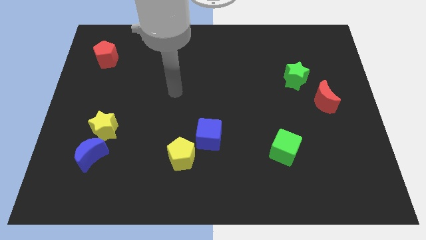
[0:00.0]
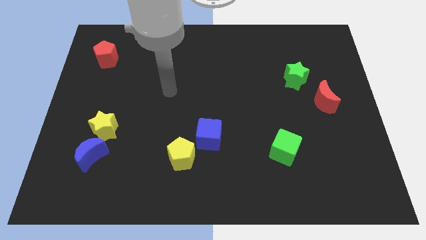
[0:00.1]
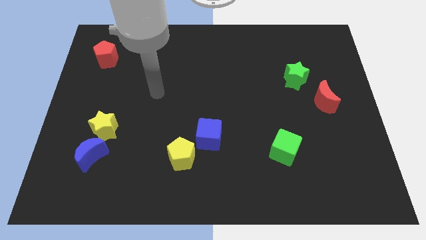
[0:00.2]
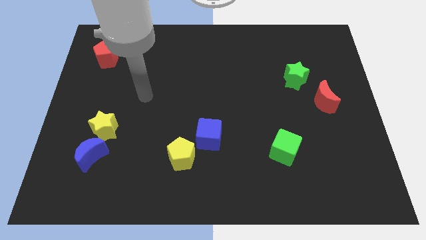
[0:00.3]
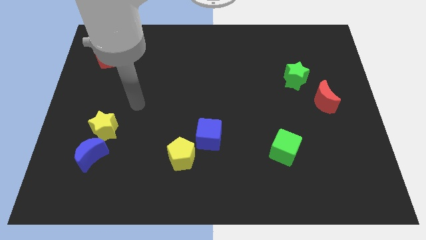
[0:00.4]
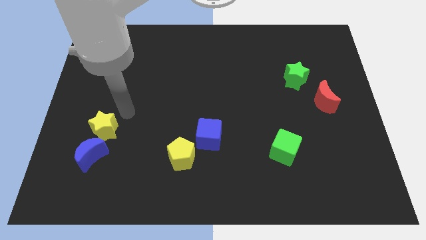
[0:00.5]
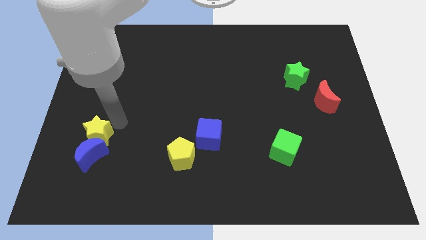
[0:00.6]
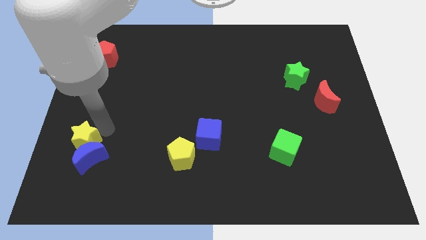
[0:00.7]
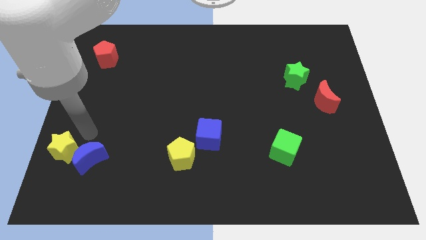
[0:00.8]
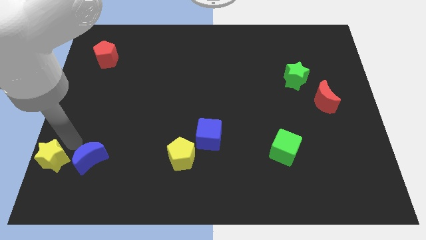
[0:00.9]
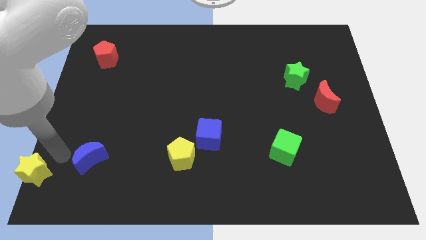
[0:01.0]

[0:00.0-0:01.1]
separate the blue moon from the yellow star

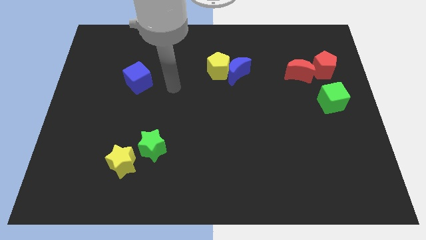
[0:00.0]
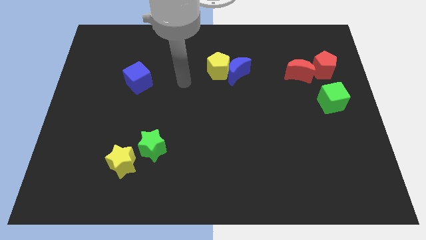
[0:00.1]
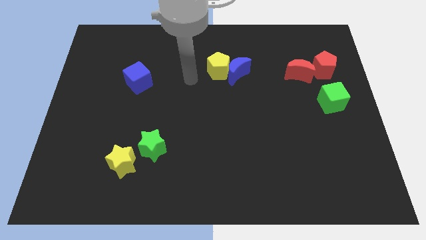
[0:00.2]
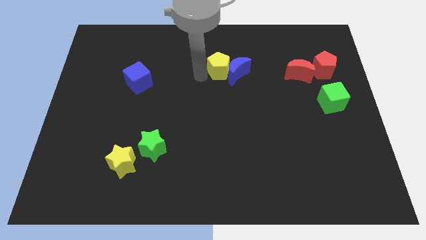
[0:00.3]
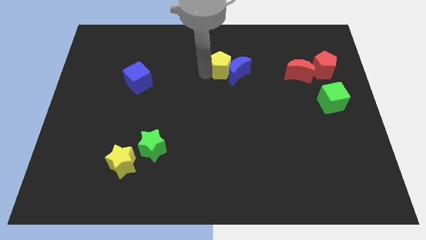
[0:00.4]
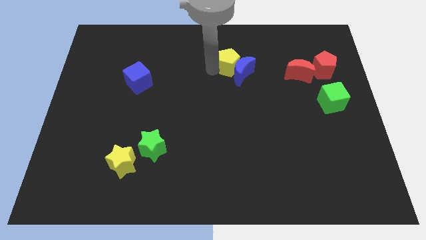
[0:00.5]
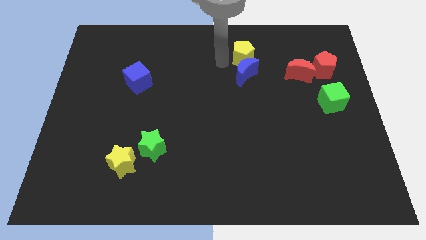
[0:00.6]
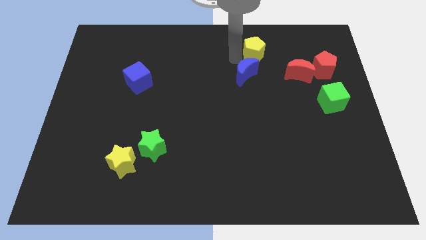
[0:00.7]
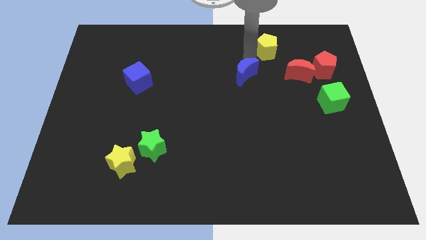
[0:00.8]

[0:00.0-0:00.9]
move the blue moon away from the yellow pentagon

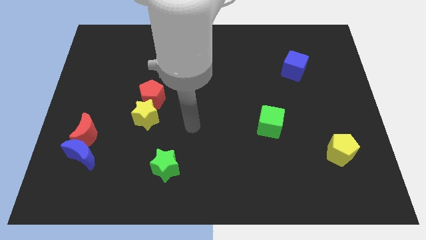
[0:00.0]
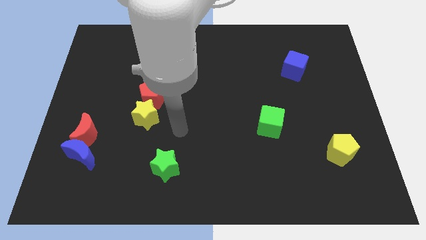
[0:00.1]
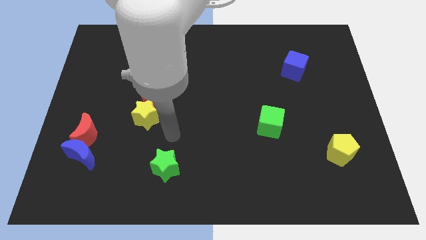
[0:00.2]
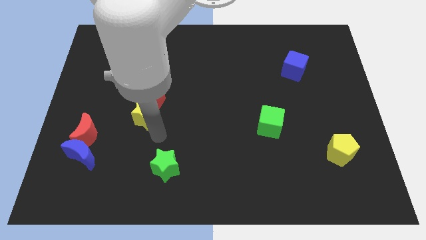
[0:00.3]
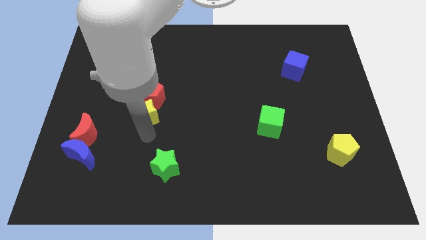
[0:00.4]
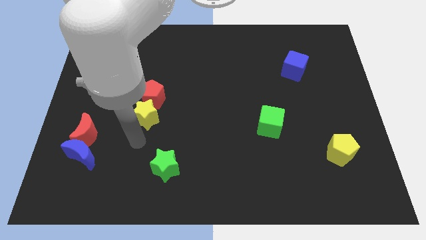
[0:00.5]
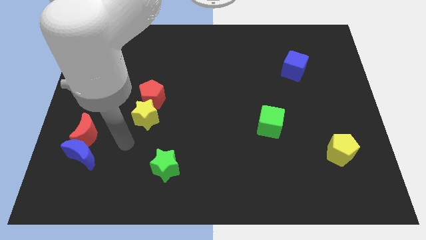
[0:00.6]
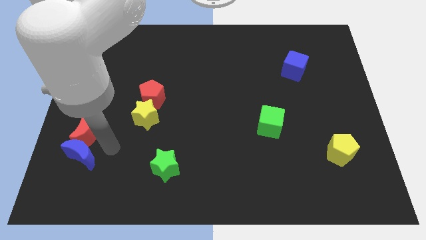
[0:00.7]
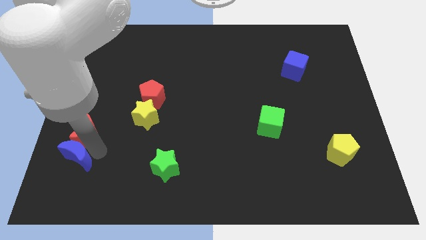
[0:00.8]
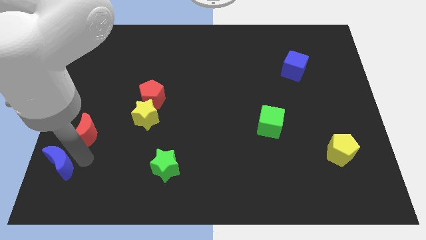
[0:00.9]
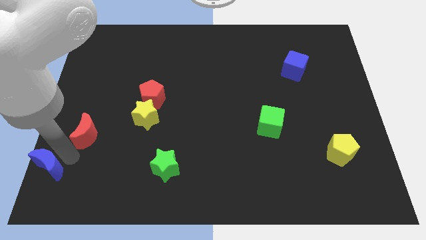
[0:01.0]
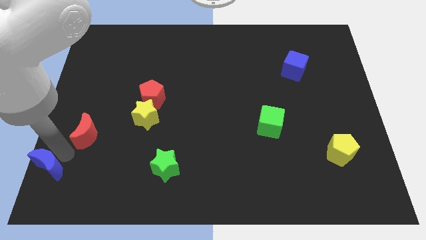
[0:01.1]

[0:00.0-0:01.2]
separate the red moon from the blue moon

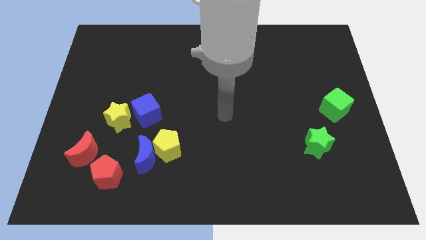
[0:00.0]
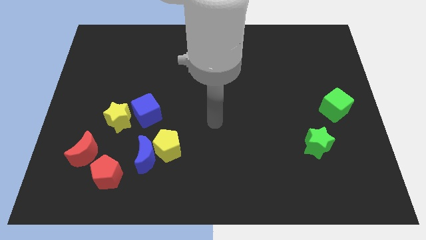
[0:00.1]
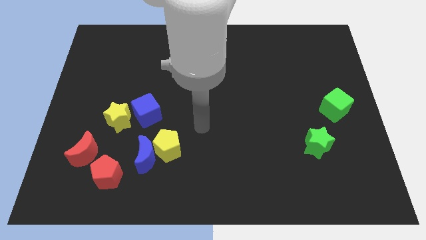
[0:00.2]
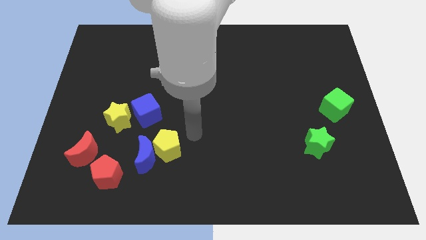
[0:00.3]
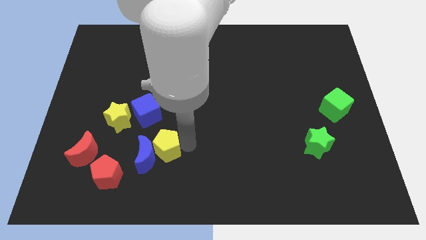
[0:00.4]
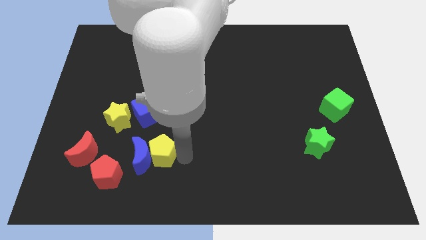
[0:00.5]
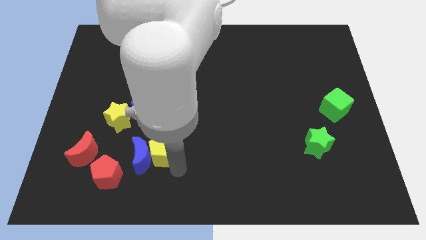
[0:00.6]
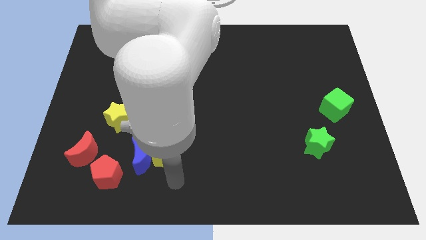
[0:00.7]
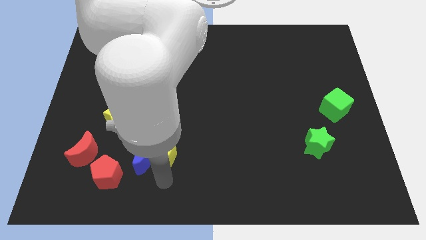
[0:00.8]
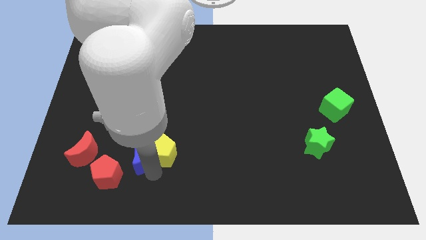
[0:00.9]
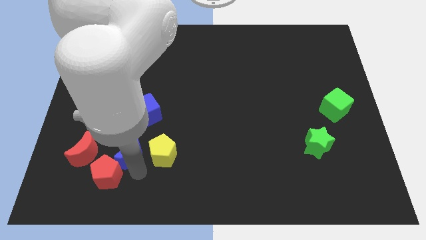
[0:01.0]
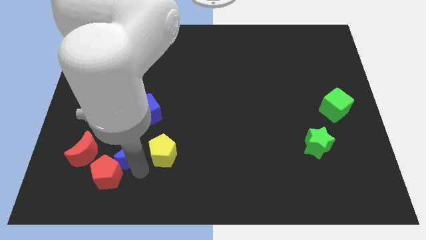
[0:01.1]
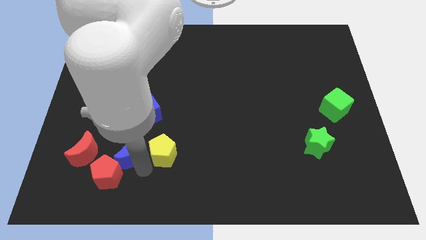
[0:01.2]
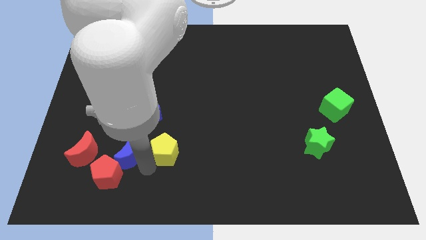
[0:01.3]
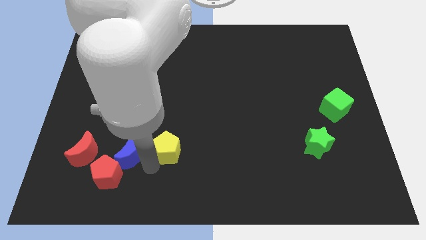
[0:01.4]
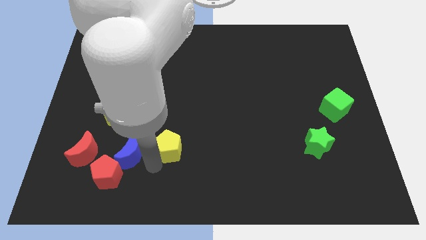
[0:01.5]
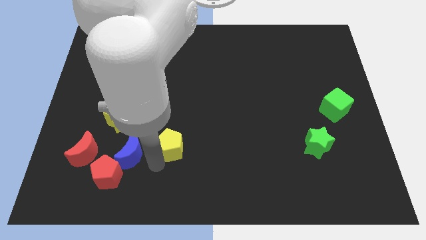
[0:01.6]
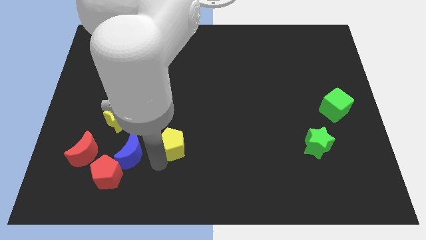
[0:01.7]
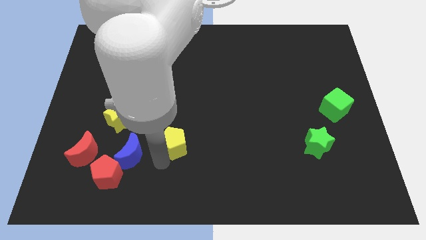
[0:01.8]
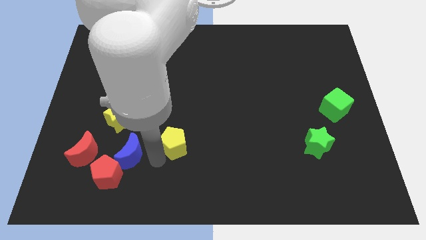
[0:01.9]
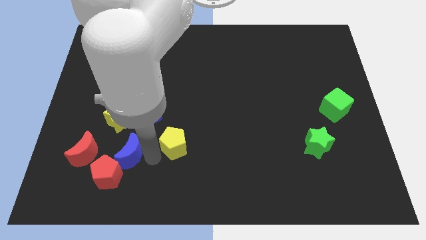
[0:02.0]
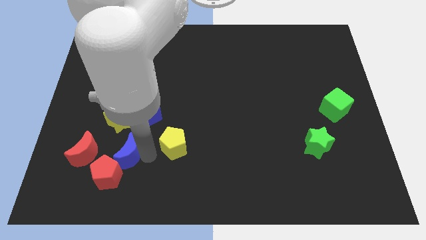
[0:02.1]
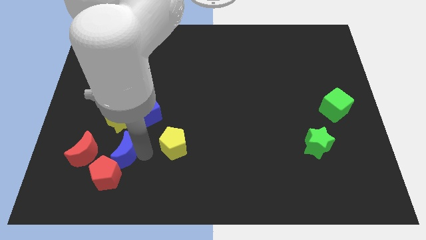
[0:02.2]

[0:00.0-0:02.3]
move the yellow pentagon away from the blue moon

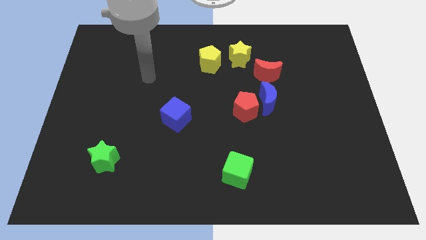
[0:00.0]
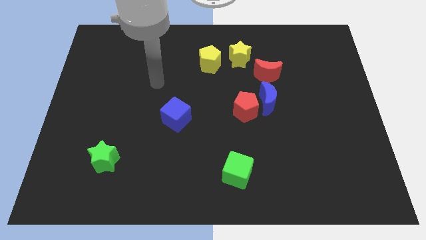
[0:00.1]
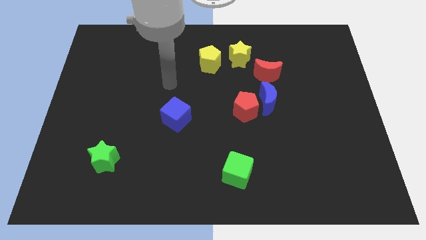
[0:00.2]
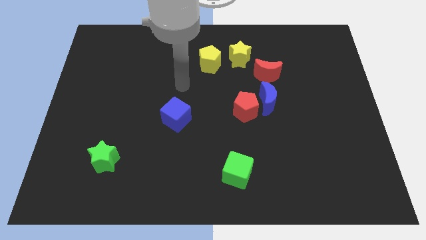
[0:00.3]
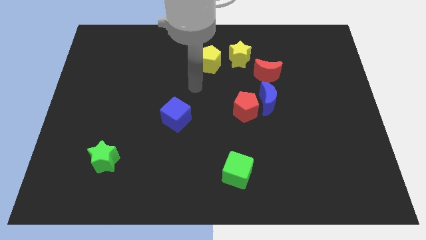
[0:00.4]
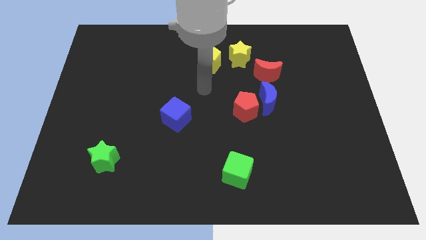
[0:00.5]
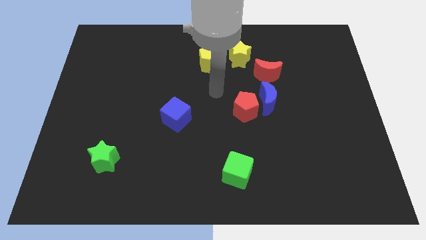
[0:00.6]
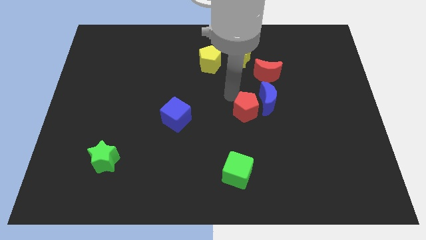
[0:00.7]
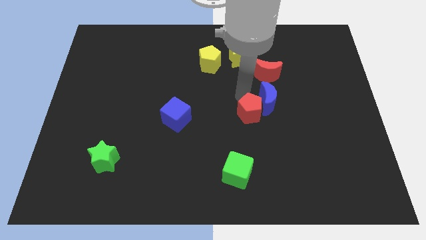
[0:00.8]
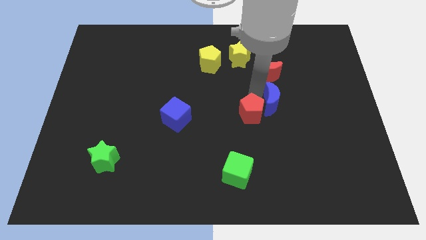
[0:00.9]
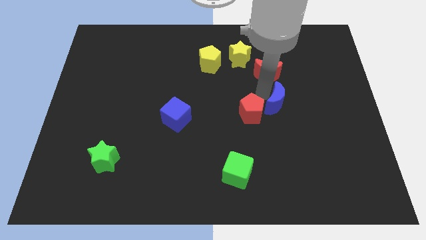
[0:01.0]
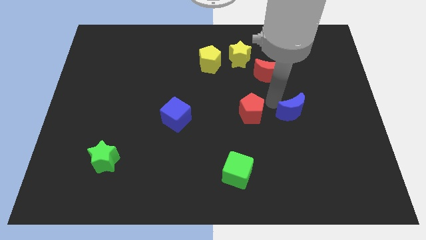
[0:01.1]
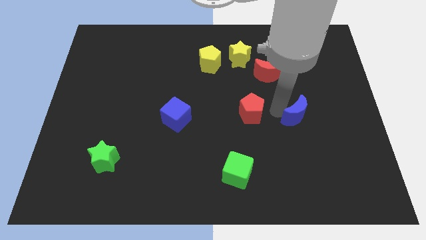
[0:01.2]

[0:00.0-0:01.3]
pull the red pentagon apart from the blue moon

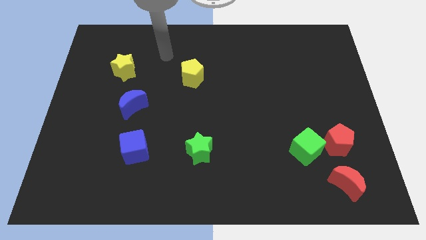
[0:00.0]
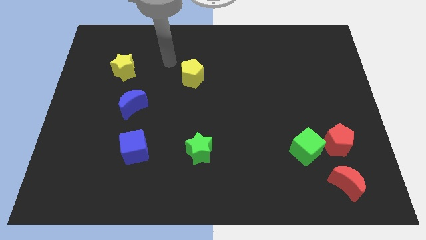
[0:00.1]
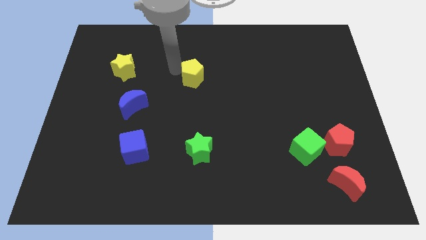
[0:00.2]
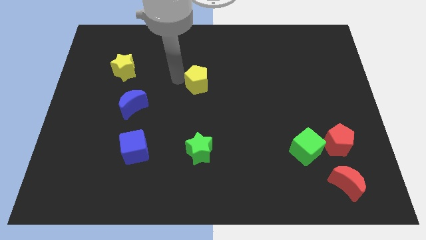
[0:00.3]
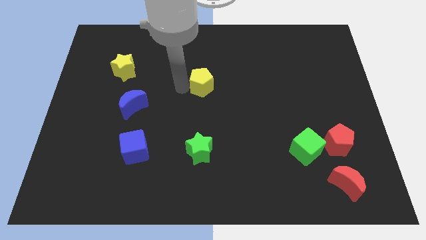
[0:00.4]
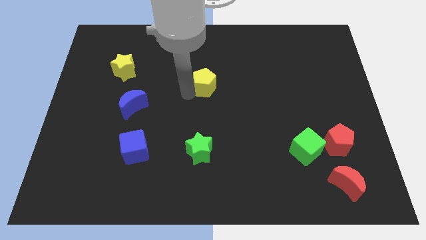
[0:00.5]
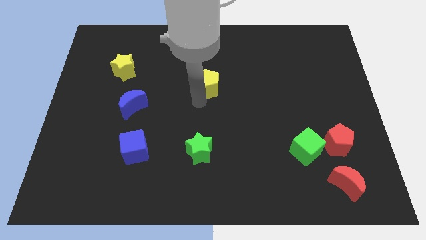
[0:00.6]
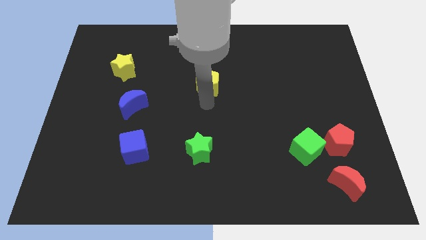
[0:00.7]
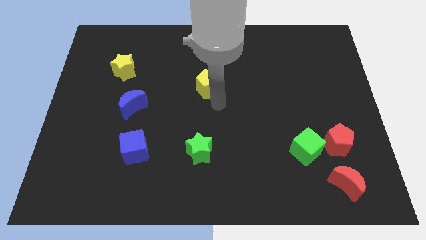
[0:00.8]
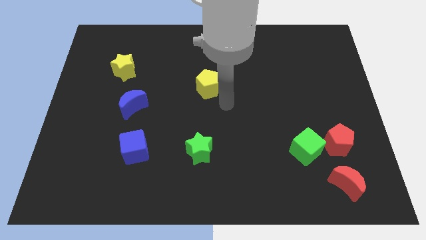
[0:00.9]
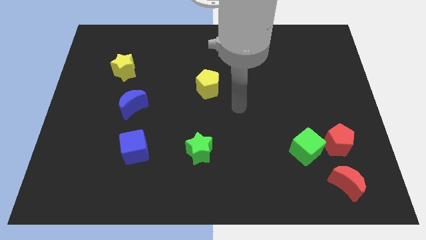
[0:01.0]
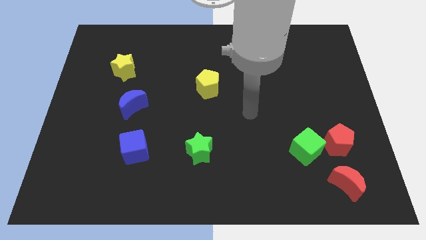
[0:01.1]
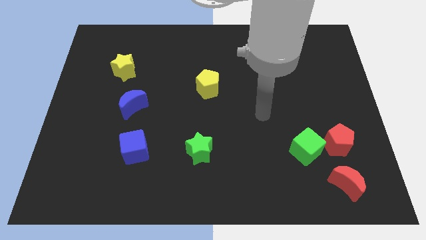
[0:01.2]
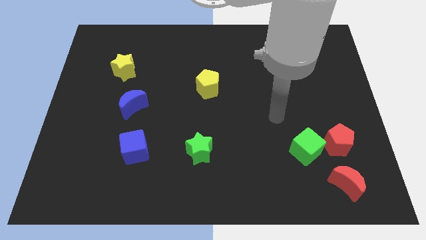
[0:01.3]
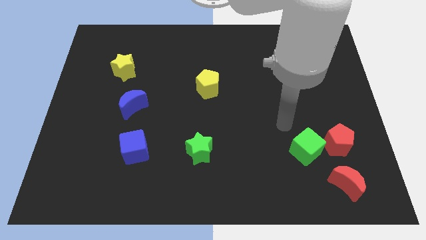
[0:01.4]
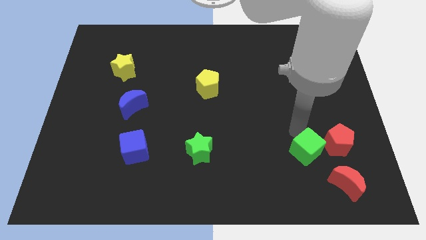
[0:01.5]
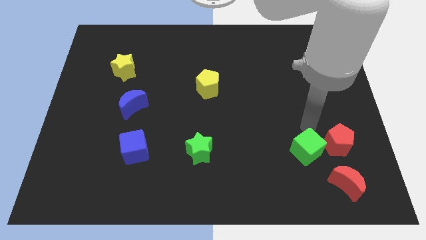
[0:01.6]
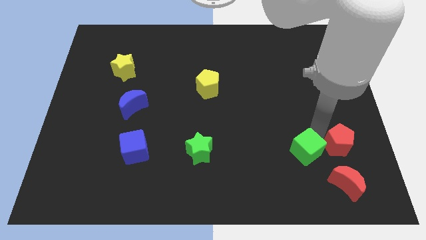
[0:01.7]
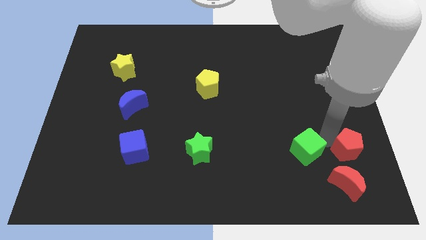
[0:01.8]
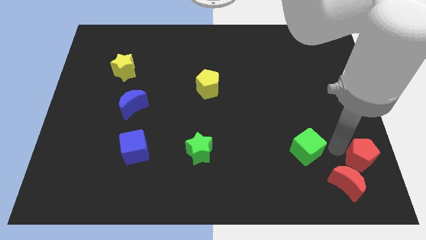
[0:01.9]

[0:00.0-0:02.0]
move the green cube away from the red pentagon

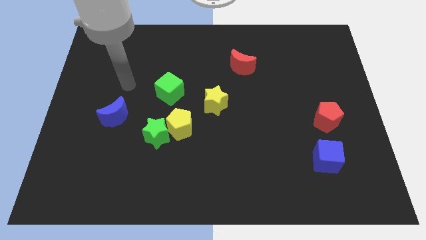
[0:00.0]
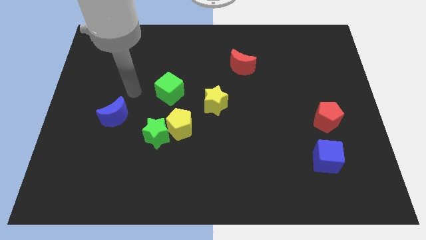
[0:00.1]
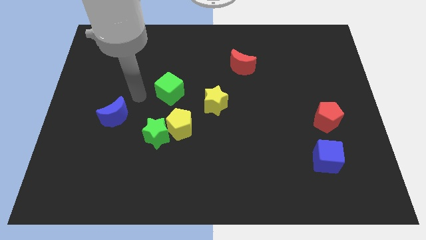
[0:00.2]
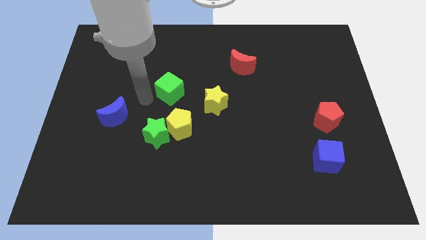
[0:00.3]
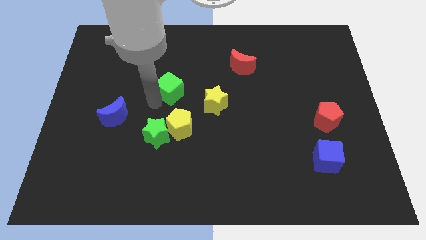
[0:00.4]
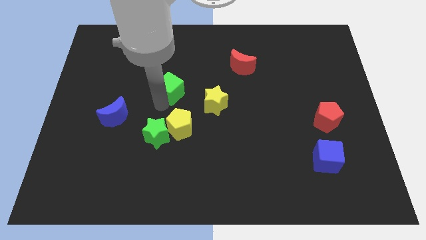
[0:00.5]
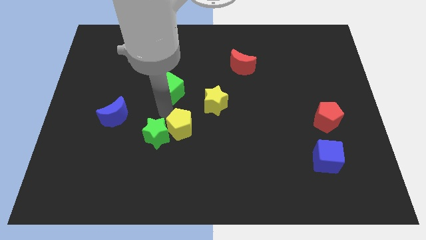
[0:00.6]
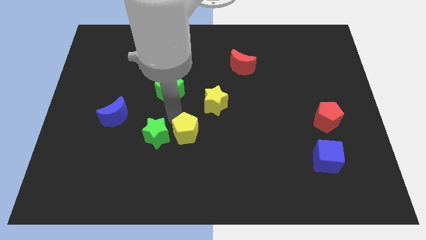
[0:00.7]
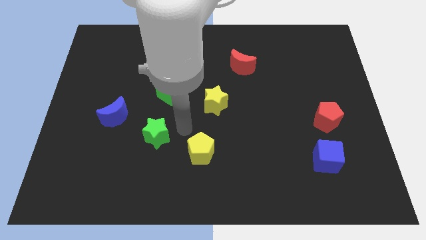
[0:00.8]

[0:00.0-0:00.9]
separate the green star from the yellow pentagon
